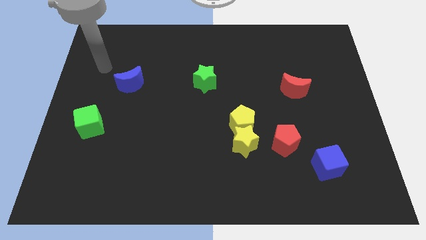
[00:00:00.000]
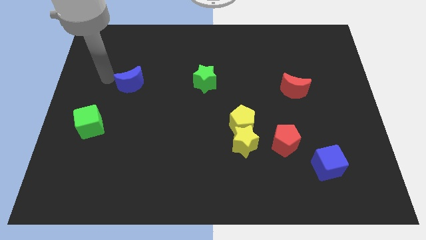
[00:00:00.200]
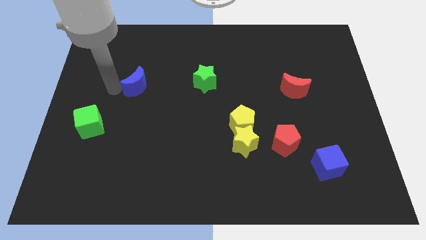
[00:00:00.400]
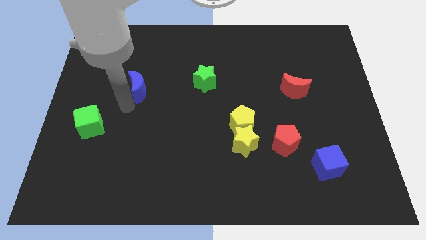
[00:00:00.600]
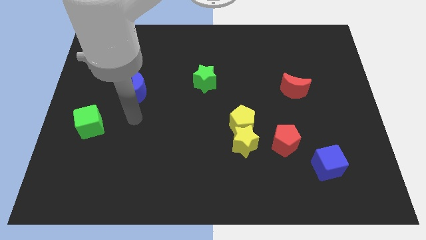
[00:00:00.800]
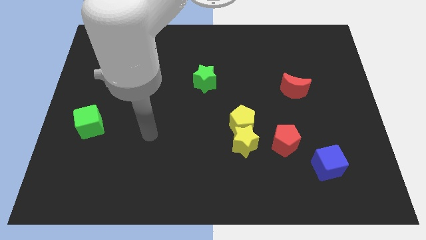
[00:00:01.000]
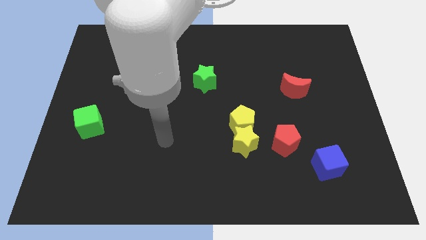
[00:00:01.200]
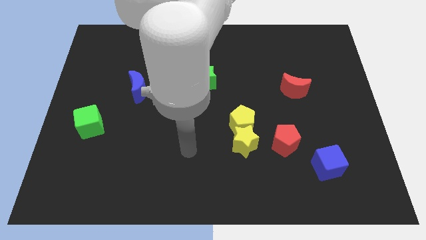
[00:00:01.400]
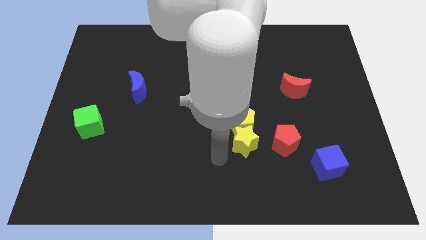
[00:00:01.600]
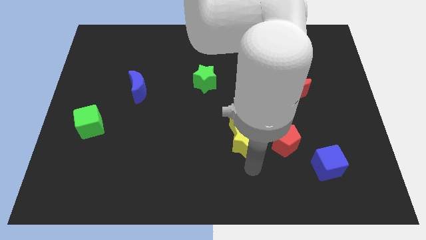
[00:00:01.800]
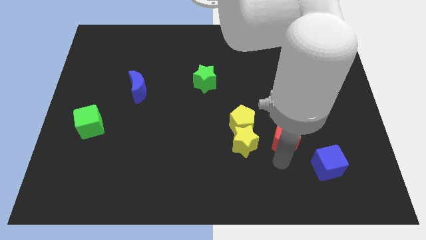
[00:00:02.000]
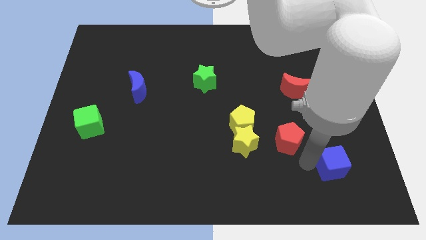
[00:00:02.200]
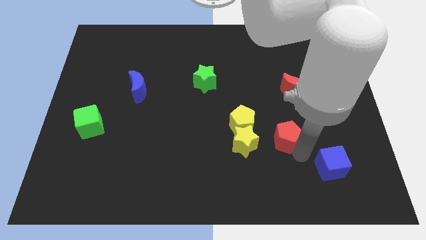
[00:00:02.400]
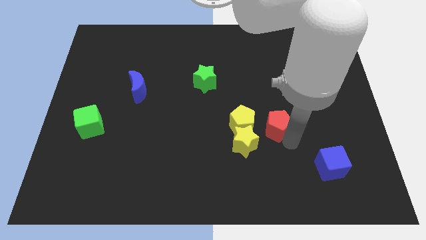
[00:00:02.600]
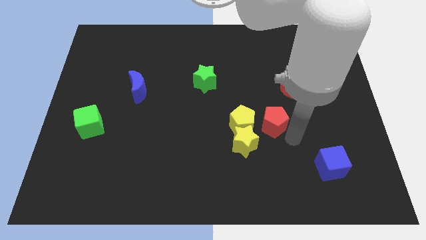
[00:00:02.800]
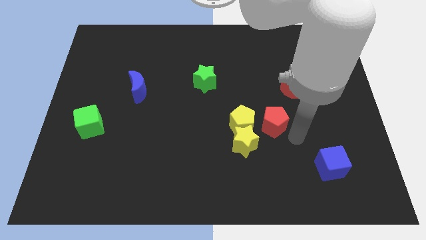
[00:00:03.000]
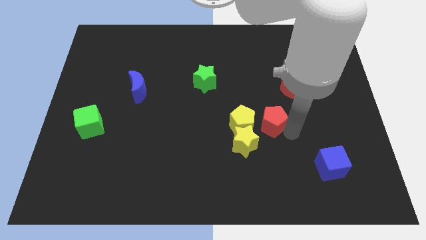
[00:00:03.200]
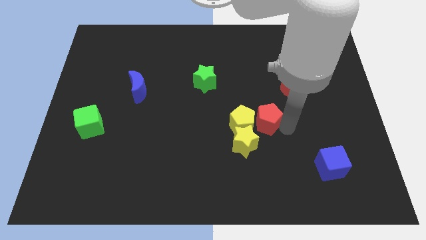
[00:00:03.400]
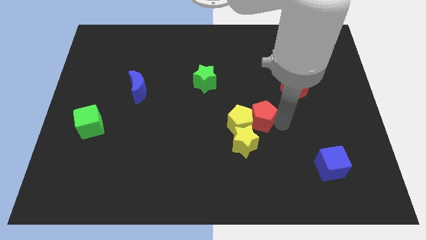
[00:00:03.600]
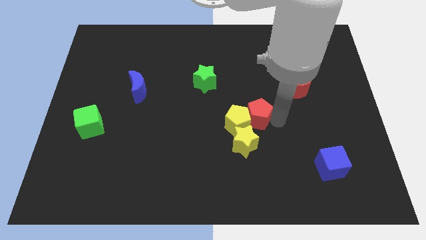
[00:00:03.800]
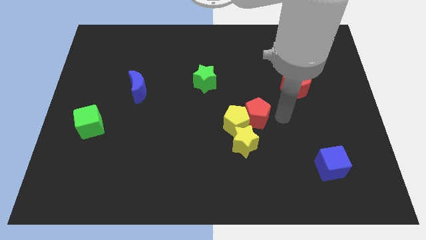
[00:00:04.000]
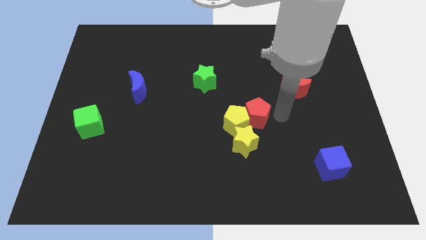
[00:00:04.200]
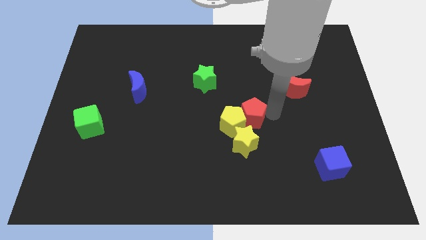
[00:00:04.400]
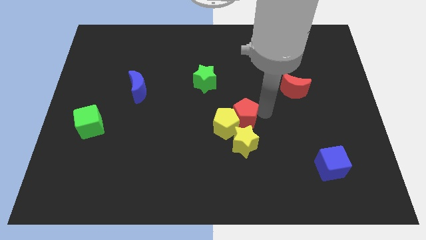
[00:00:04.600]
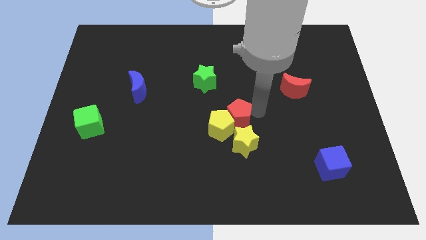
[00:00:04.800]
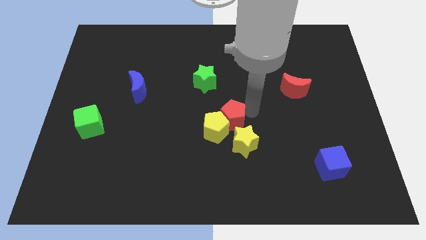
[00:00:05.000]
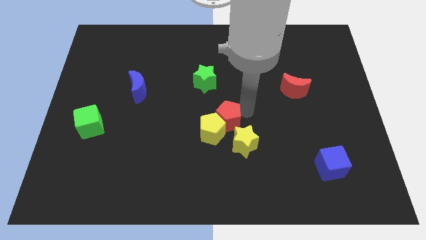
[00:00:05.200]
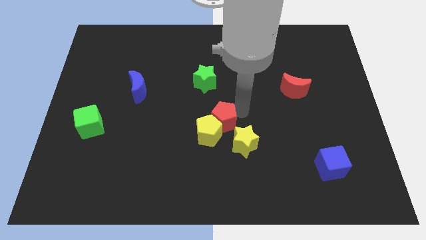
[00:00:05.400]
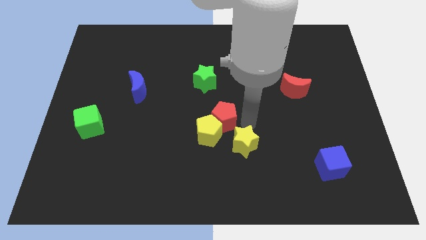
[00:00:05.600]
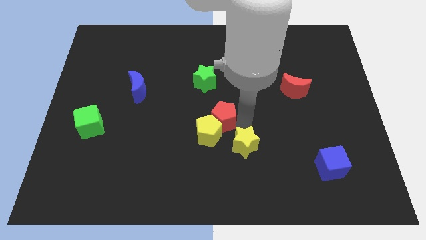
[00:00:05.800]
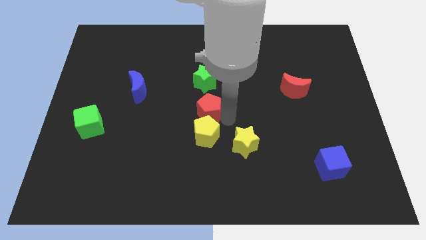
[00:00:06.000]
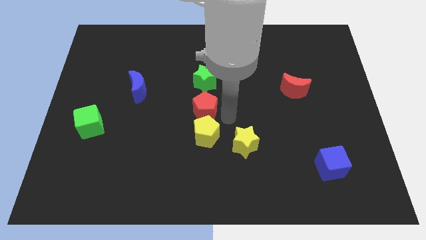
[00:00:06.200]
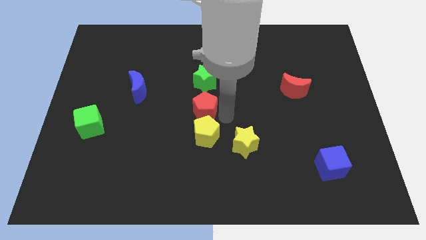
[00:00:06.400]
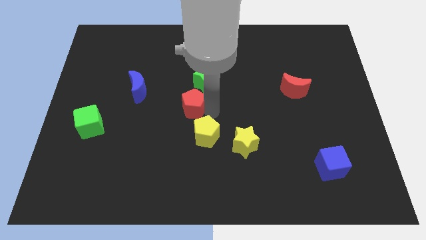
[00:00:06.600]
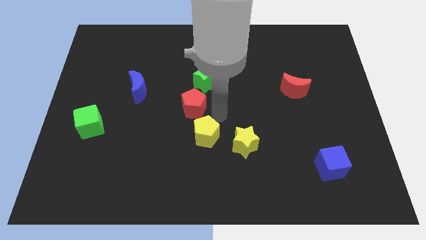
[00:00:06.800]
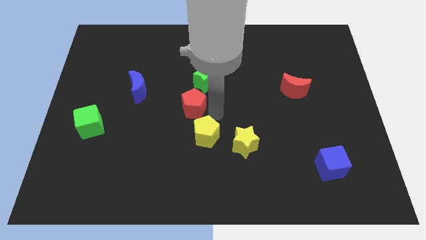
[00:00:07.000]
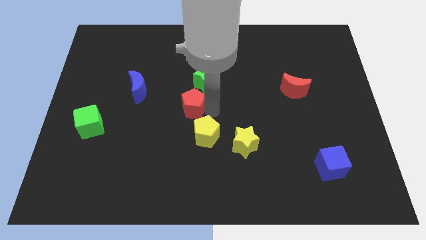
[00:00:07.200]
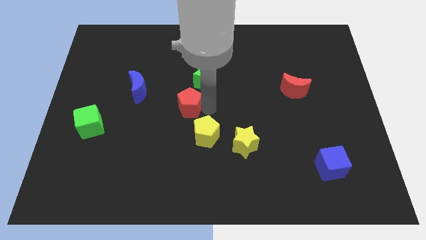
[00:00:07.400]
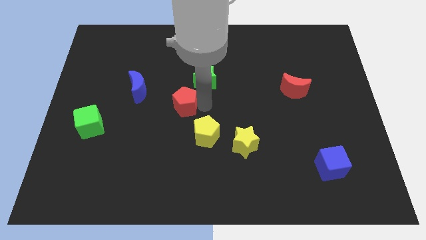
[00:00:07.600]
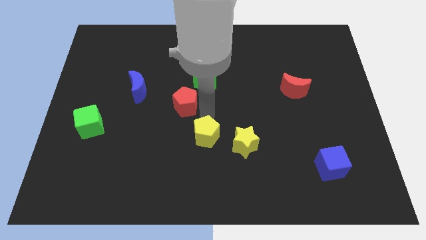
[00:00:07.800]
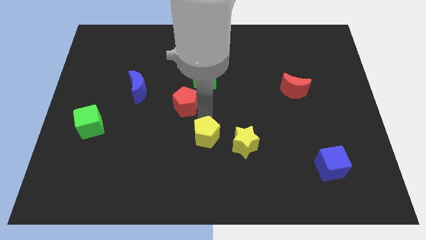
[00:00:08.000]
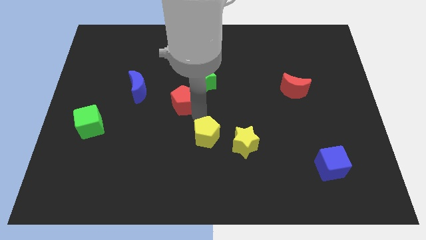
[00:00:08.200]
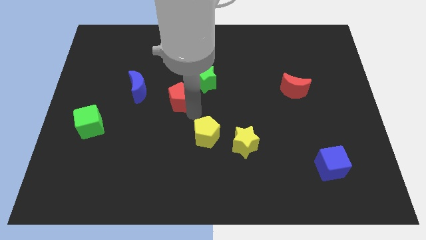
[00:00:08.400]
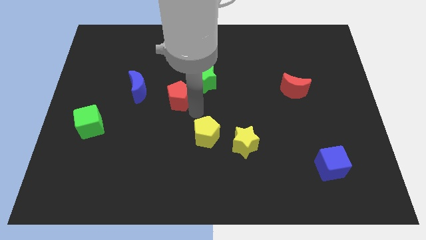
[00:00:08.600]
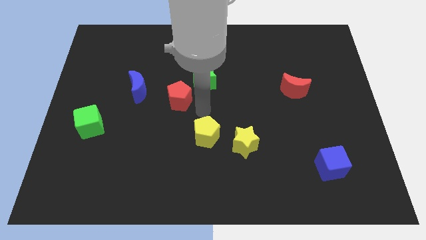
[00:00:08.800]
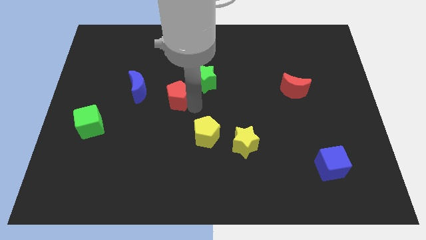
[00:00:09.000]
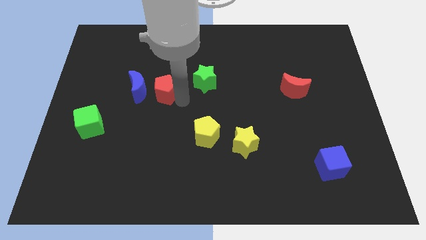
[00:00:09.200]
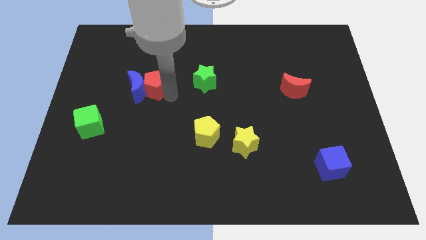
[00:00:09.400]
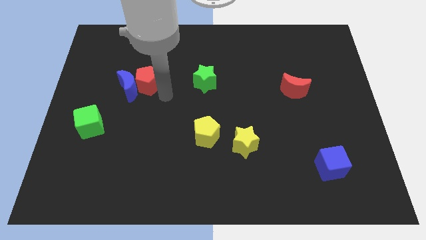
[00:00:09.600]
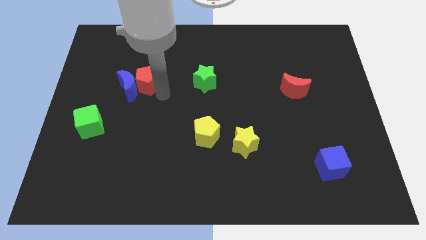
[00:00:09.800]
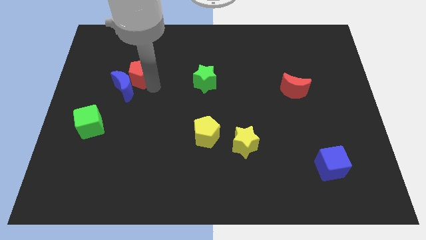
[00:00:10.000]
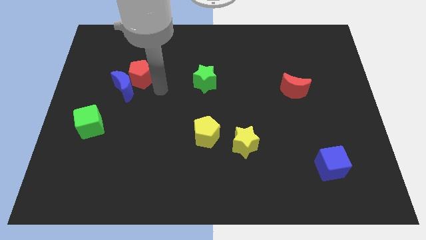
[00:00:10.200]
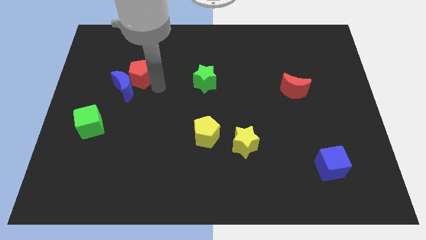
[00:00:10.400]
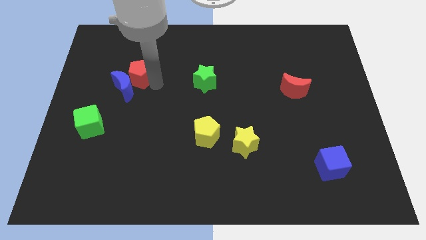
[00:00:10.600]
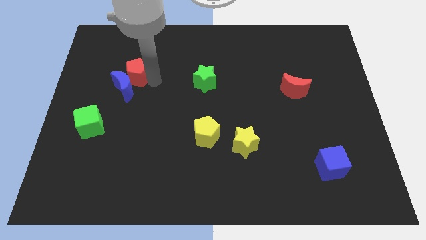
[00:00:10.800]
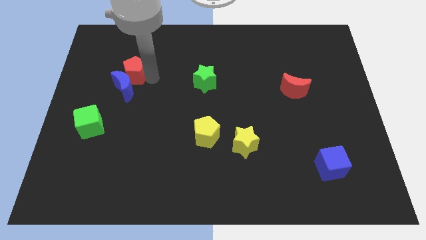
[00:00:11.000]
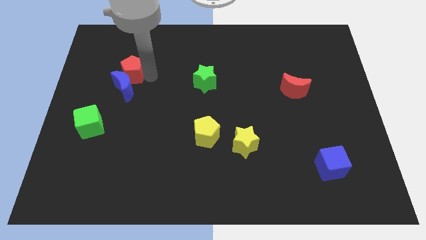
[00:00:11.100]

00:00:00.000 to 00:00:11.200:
put the red pentagon to the top left side of the blue moon

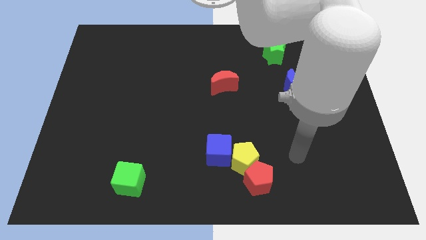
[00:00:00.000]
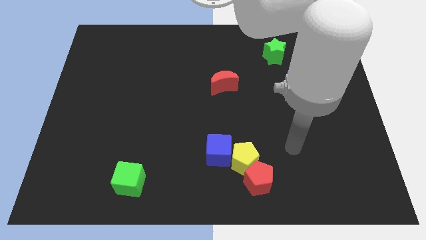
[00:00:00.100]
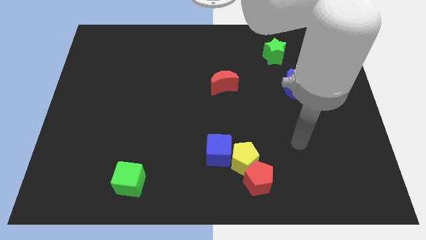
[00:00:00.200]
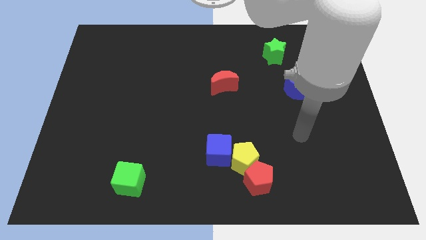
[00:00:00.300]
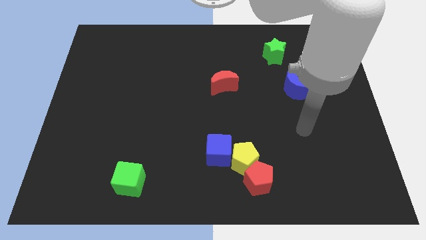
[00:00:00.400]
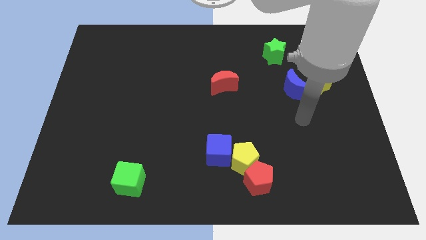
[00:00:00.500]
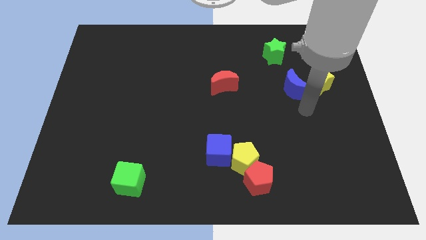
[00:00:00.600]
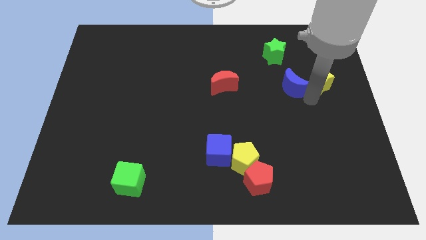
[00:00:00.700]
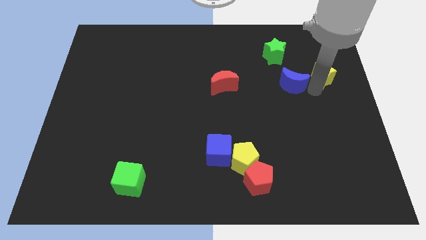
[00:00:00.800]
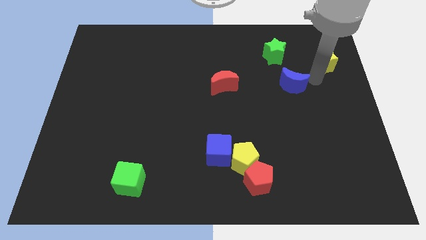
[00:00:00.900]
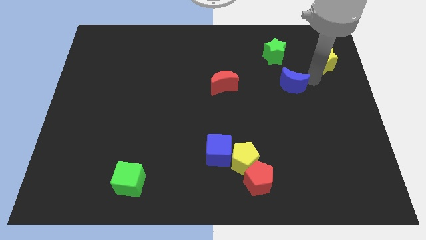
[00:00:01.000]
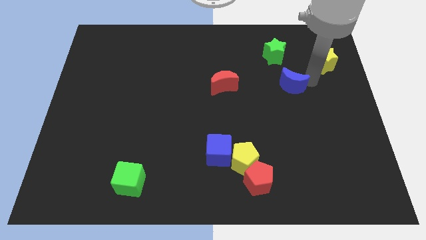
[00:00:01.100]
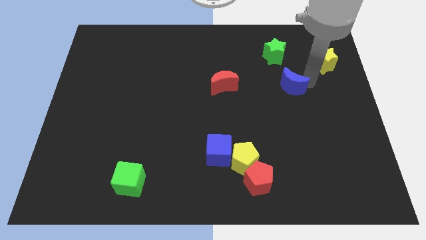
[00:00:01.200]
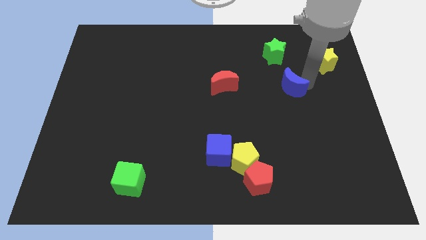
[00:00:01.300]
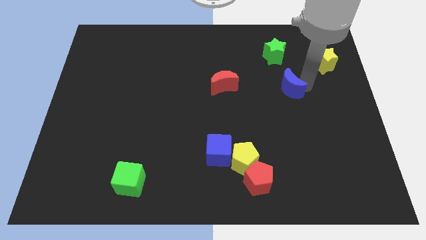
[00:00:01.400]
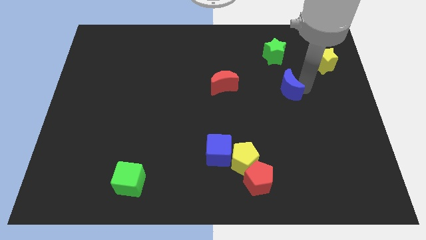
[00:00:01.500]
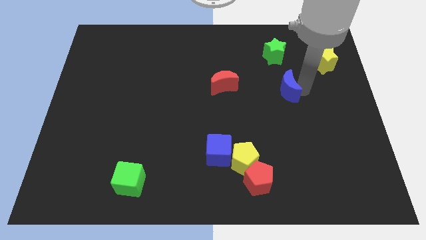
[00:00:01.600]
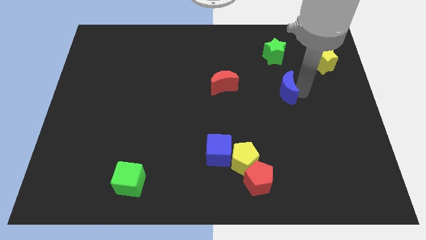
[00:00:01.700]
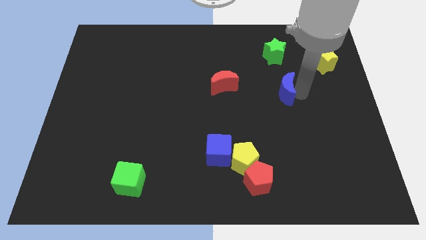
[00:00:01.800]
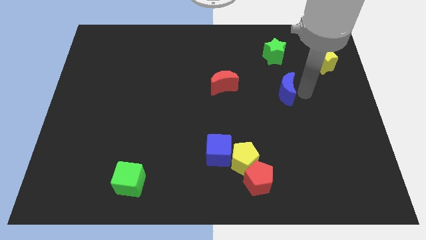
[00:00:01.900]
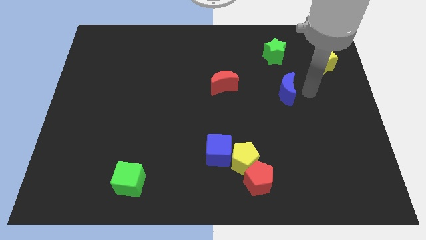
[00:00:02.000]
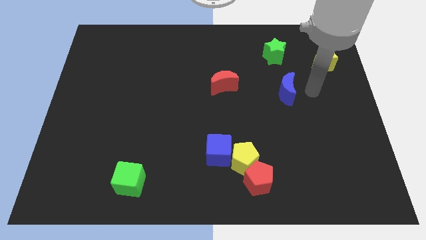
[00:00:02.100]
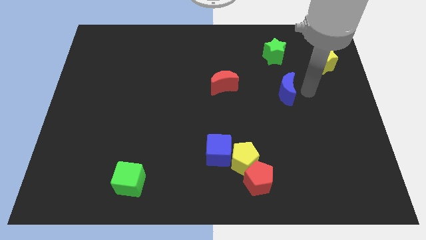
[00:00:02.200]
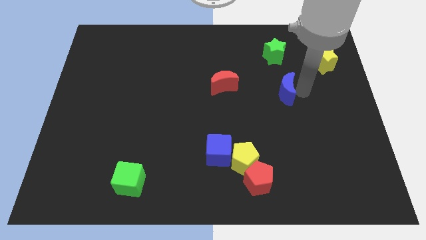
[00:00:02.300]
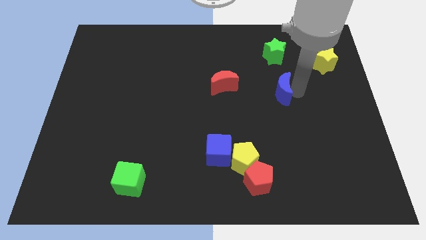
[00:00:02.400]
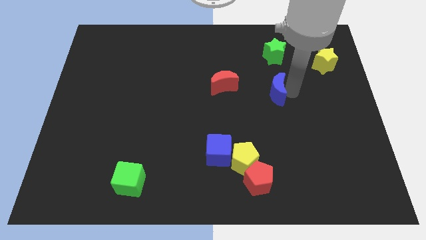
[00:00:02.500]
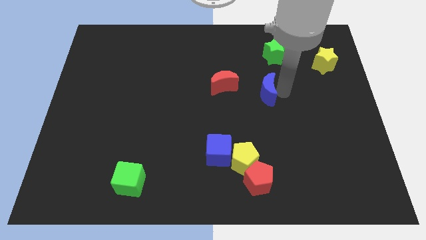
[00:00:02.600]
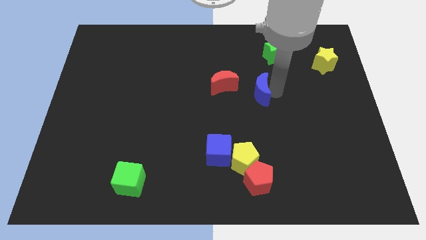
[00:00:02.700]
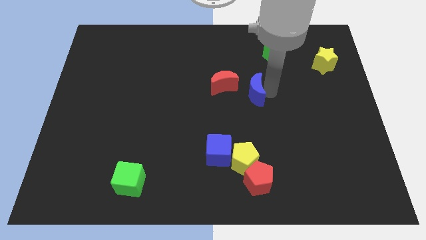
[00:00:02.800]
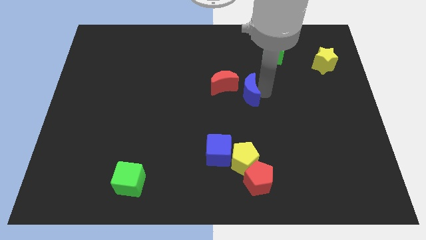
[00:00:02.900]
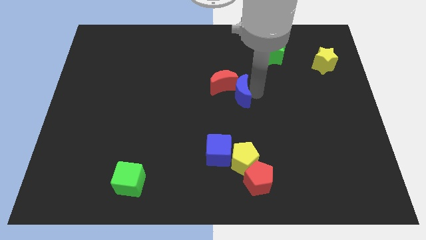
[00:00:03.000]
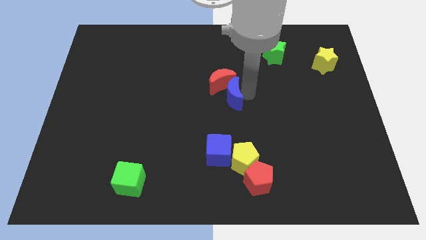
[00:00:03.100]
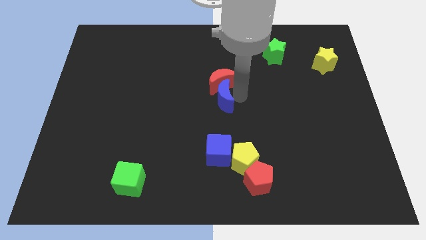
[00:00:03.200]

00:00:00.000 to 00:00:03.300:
push the blue moon to the bottom left of the red moon
